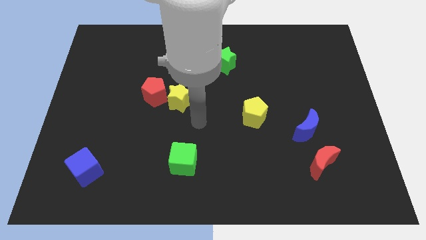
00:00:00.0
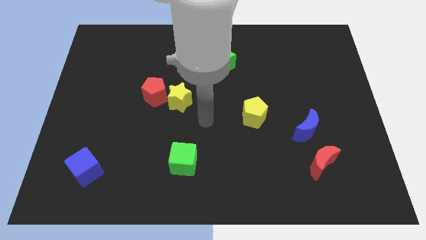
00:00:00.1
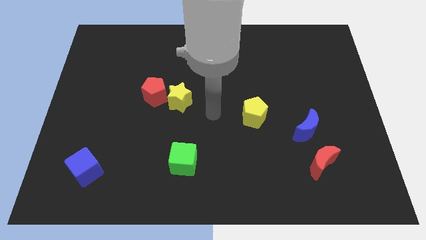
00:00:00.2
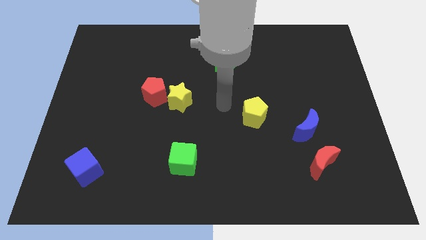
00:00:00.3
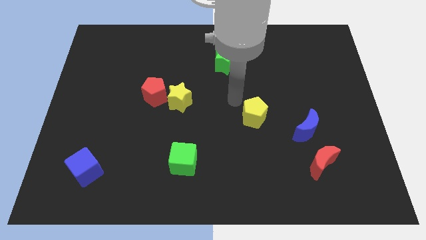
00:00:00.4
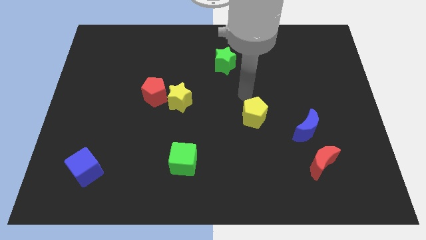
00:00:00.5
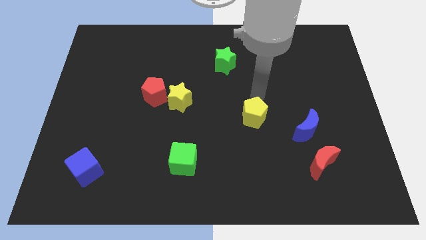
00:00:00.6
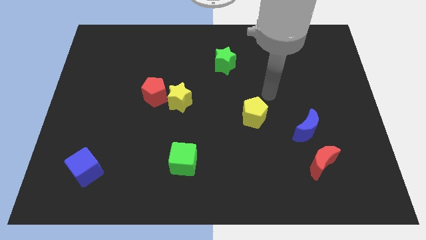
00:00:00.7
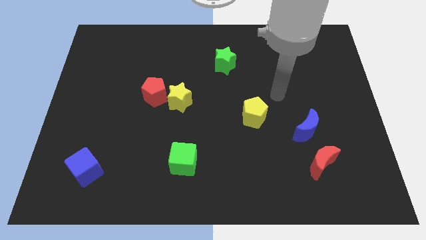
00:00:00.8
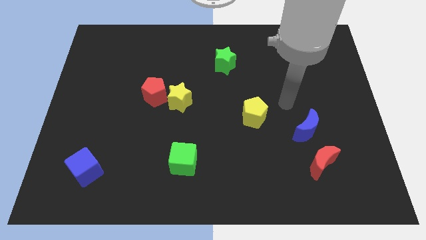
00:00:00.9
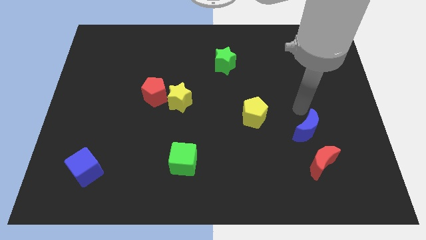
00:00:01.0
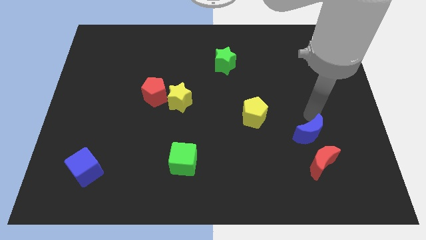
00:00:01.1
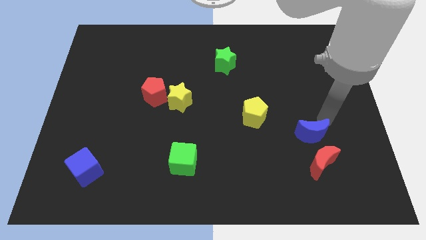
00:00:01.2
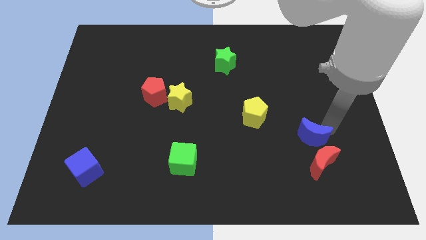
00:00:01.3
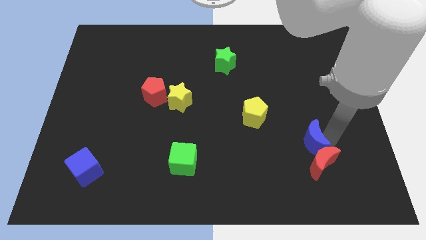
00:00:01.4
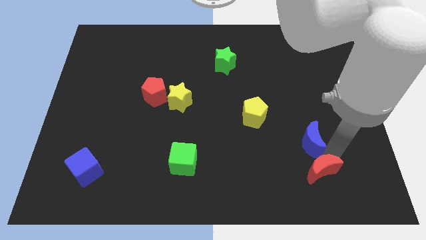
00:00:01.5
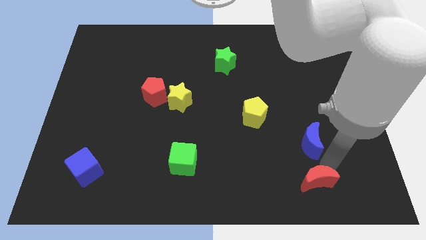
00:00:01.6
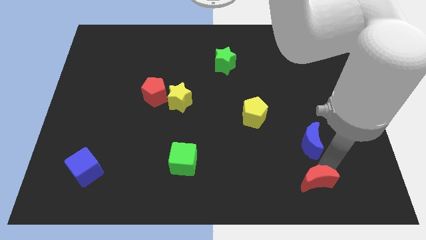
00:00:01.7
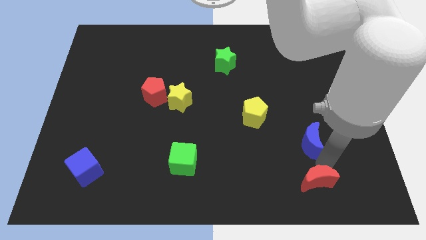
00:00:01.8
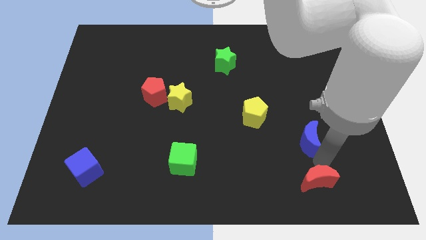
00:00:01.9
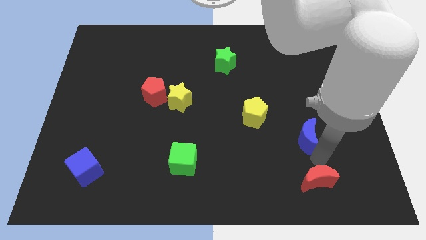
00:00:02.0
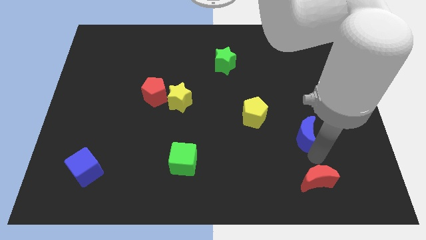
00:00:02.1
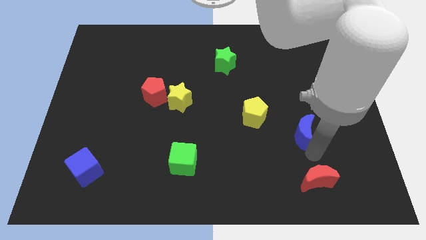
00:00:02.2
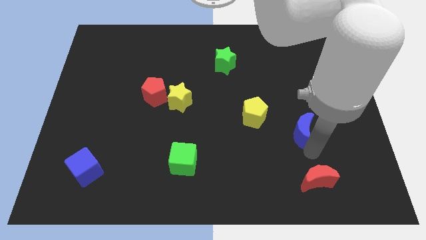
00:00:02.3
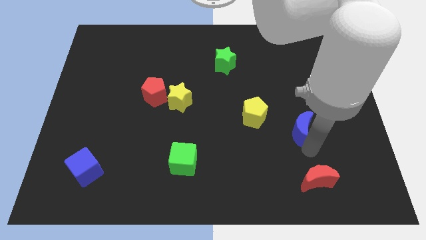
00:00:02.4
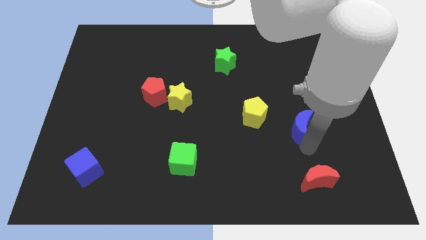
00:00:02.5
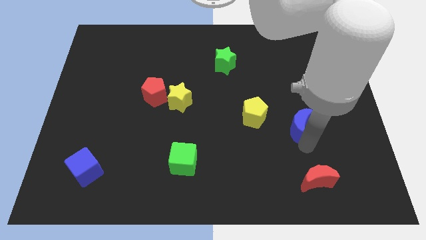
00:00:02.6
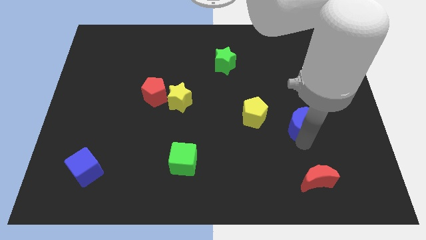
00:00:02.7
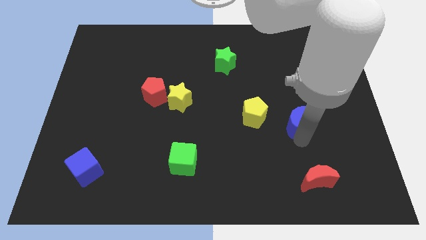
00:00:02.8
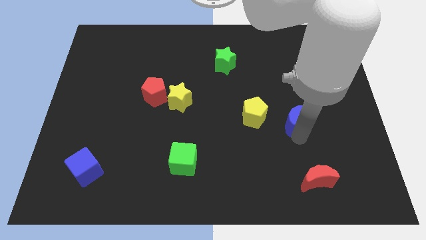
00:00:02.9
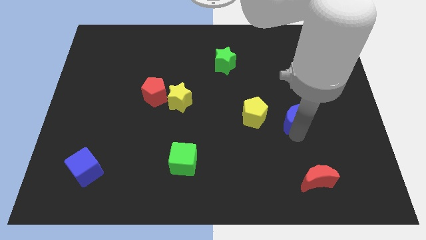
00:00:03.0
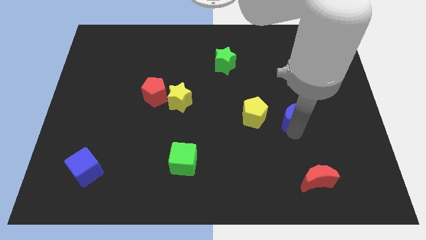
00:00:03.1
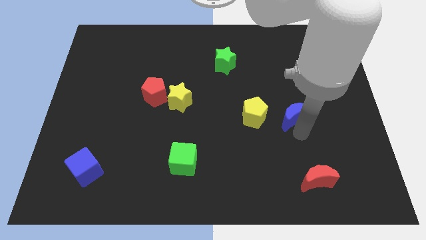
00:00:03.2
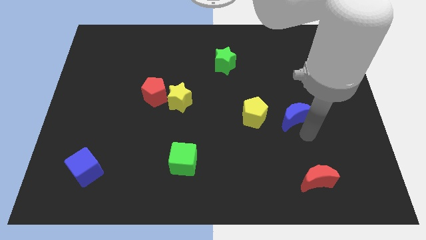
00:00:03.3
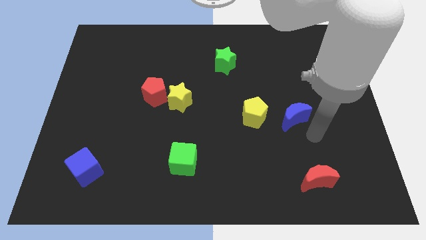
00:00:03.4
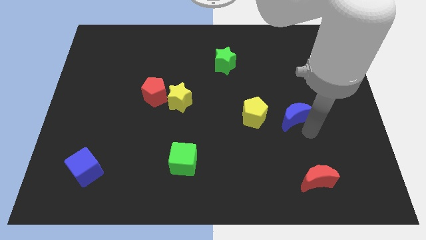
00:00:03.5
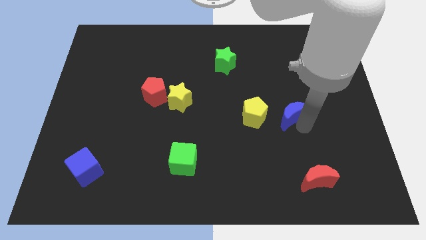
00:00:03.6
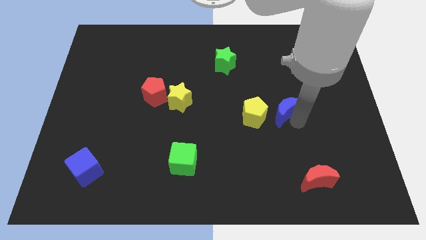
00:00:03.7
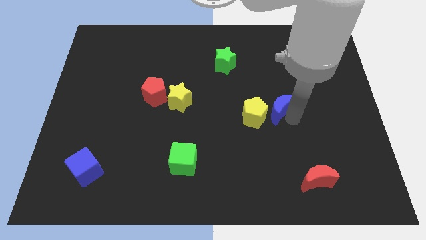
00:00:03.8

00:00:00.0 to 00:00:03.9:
push the blue moon upwards and left slightly

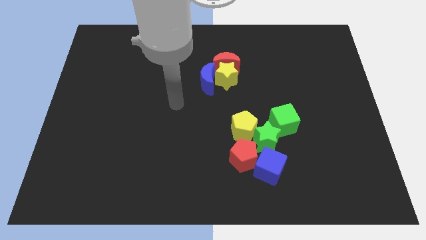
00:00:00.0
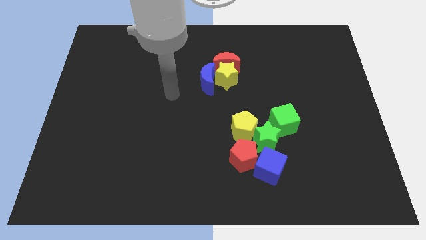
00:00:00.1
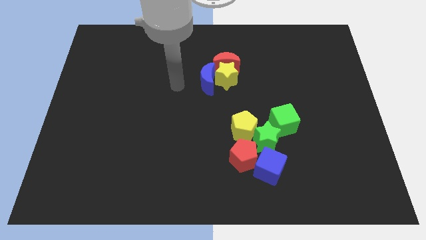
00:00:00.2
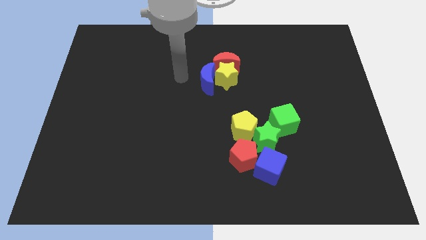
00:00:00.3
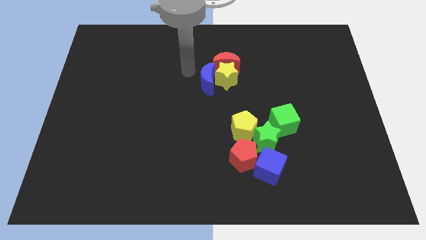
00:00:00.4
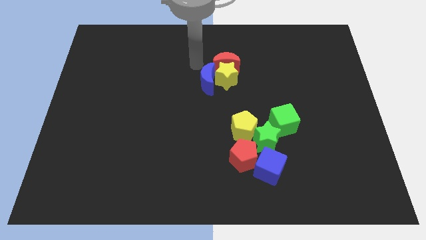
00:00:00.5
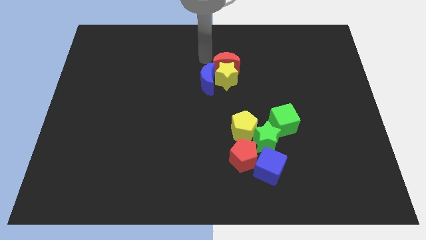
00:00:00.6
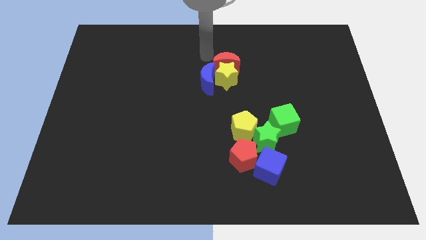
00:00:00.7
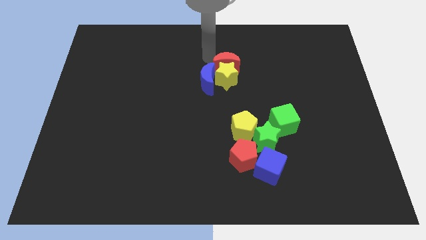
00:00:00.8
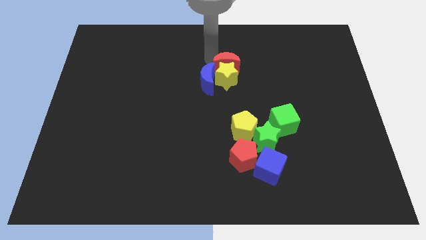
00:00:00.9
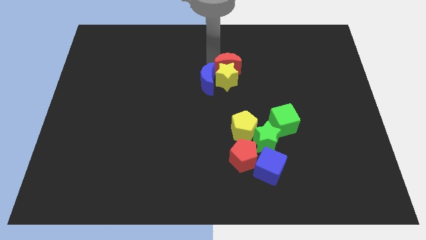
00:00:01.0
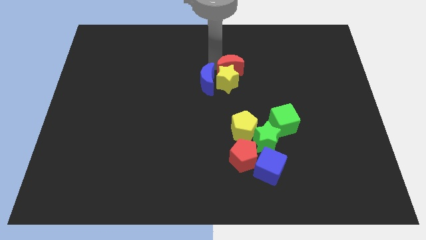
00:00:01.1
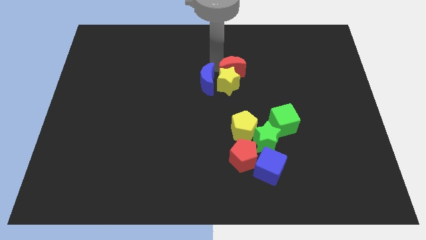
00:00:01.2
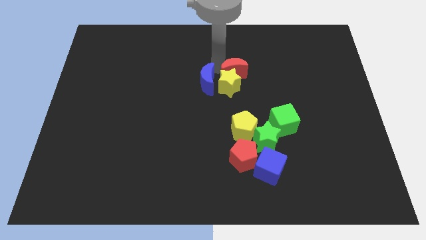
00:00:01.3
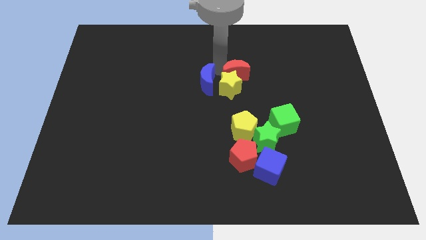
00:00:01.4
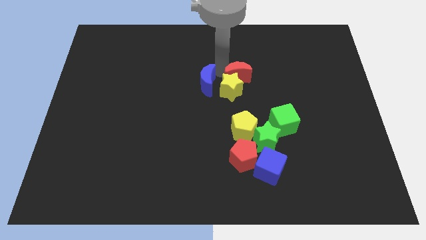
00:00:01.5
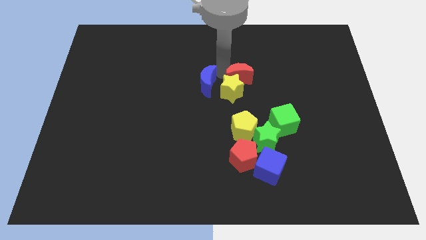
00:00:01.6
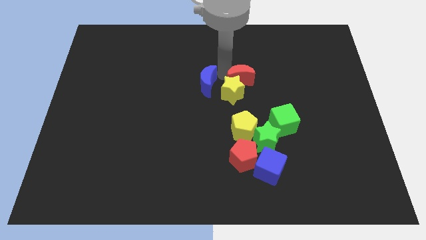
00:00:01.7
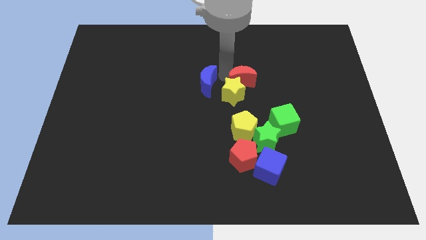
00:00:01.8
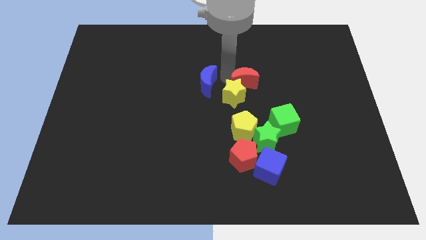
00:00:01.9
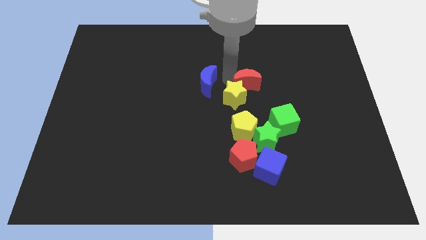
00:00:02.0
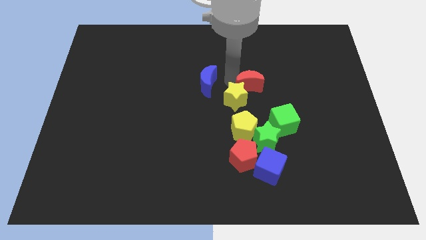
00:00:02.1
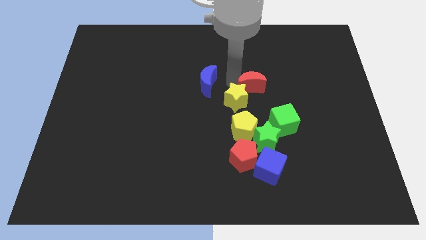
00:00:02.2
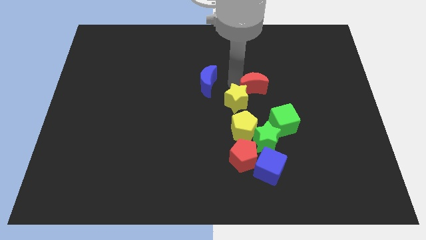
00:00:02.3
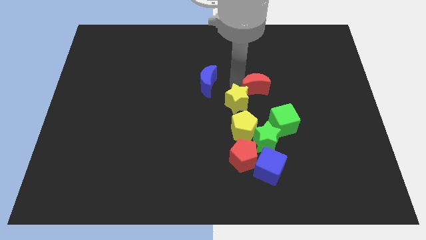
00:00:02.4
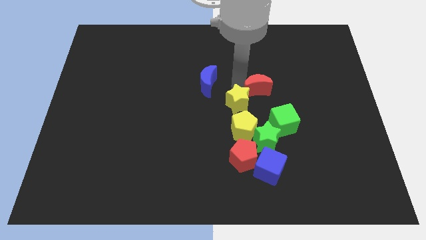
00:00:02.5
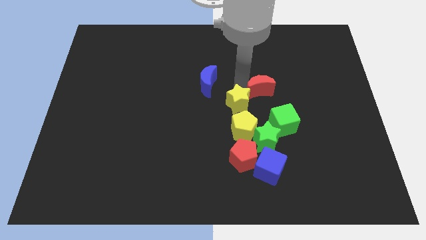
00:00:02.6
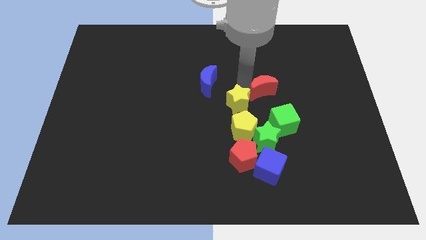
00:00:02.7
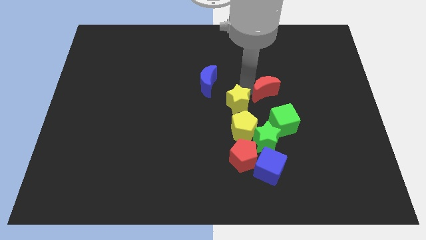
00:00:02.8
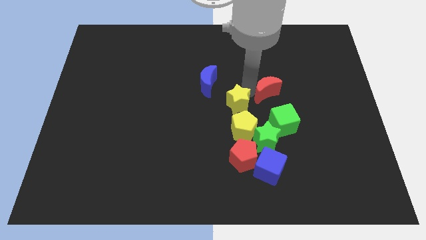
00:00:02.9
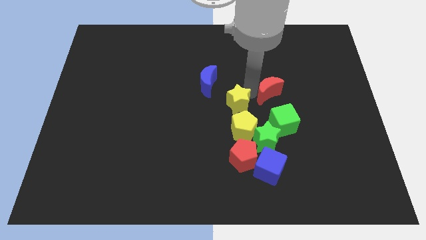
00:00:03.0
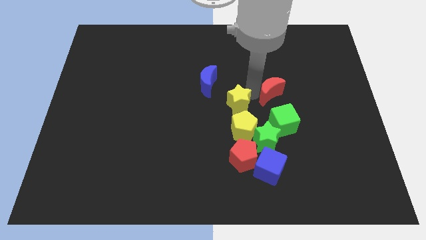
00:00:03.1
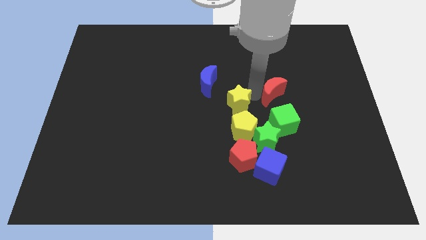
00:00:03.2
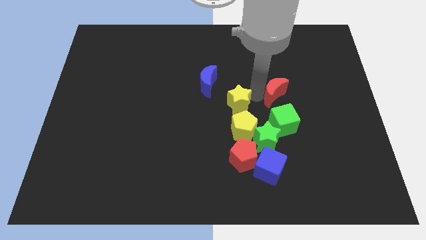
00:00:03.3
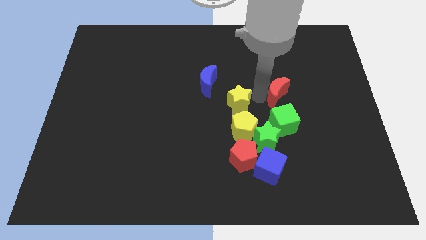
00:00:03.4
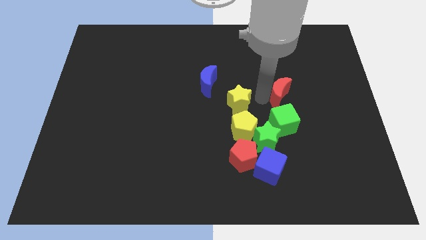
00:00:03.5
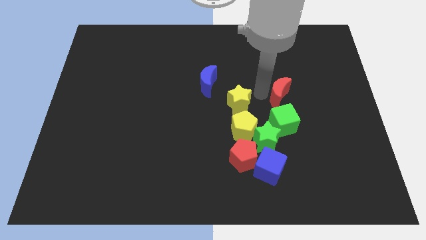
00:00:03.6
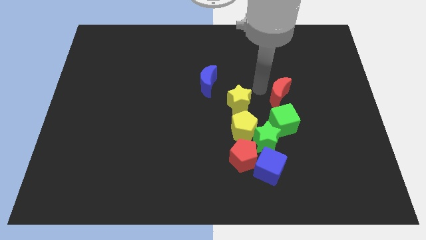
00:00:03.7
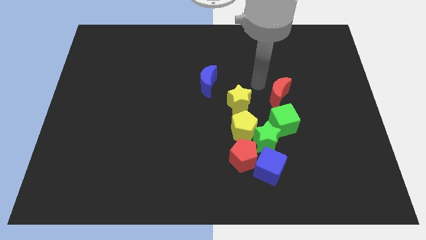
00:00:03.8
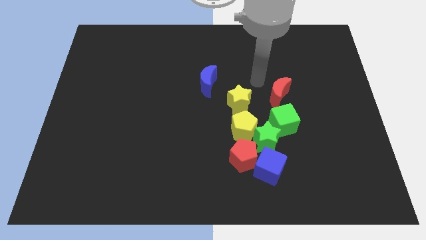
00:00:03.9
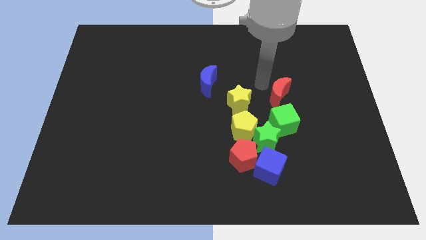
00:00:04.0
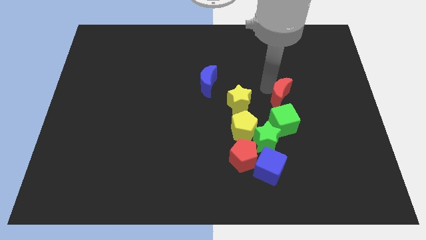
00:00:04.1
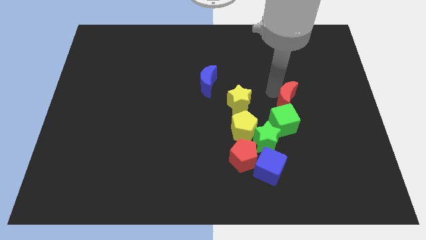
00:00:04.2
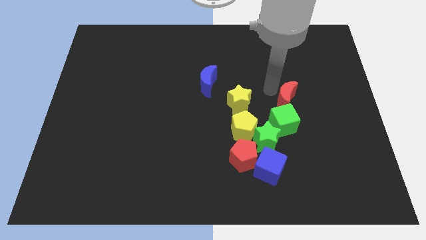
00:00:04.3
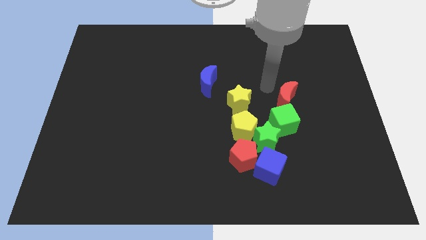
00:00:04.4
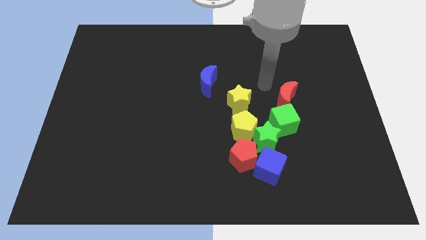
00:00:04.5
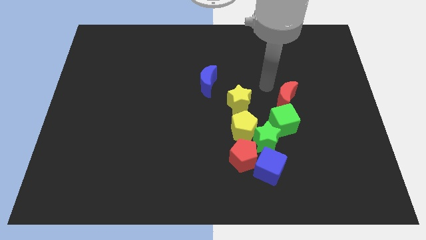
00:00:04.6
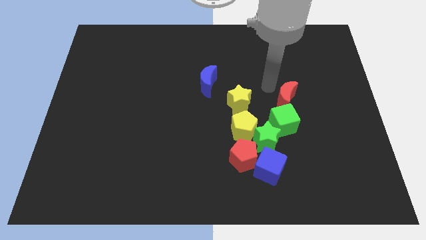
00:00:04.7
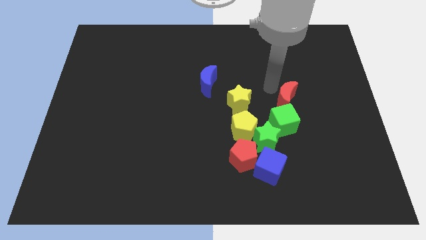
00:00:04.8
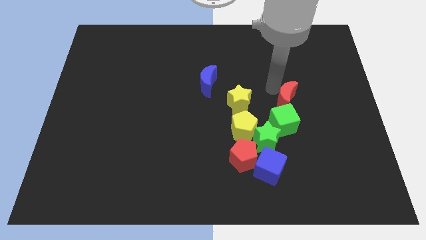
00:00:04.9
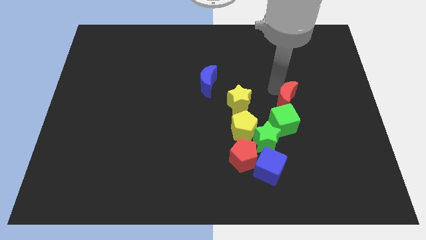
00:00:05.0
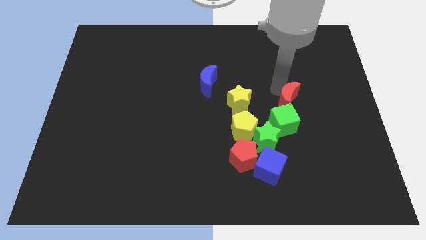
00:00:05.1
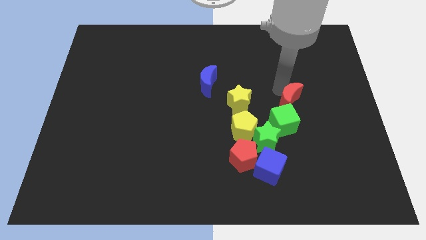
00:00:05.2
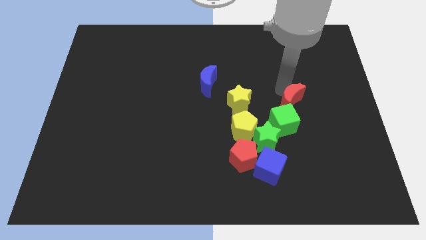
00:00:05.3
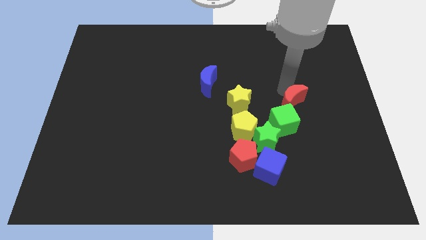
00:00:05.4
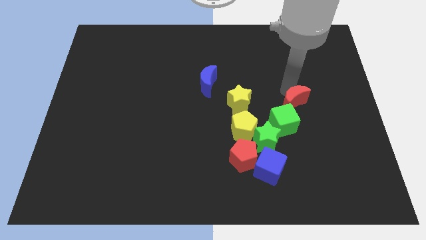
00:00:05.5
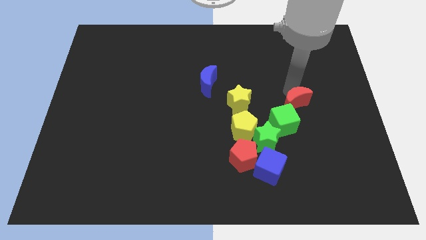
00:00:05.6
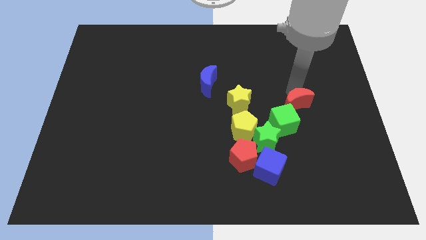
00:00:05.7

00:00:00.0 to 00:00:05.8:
move the red moon diagonally down and to the right
